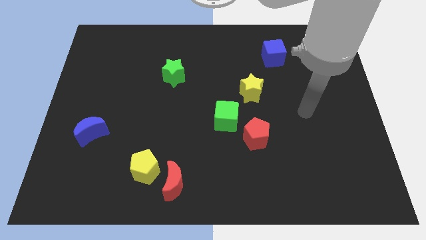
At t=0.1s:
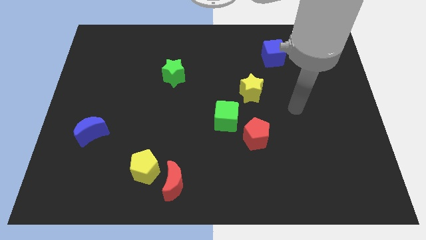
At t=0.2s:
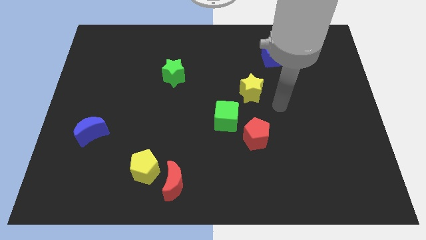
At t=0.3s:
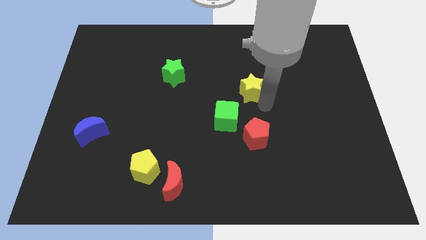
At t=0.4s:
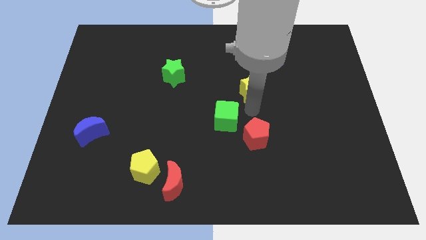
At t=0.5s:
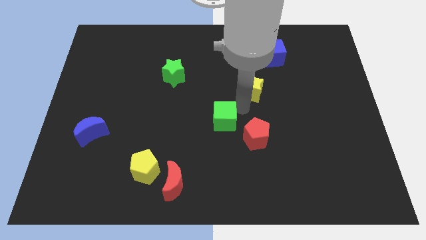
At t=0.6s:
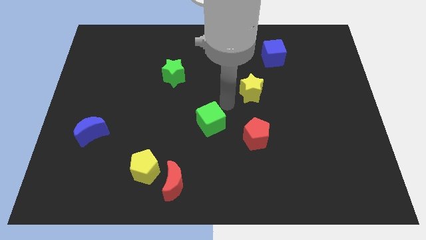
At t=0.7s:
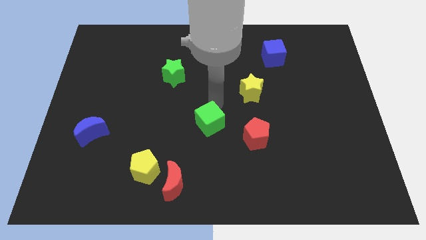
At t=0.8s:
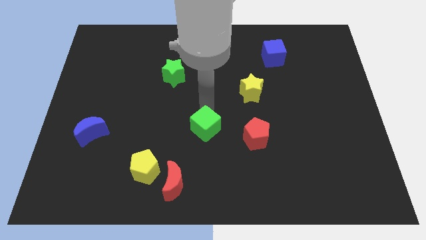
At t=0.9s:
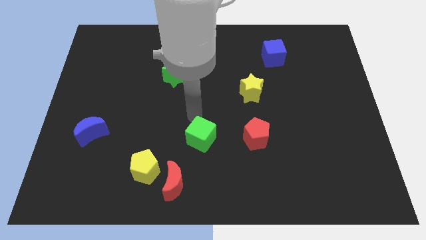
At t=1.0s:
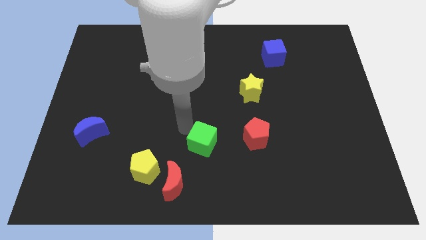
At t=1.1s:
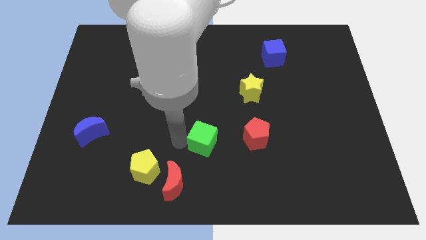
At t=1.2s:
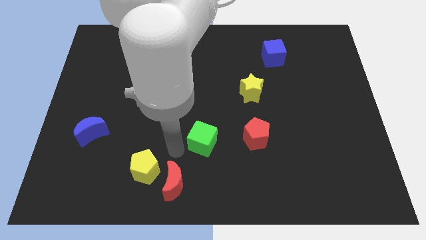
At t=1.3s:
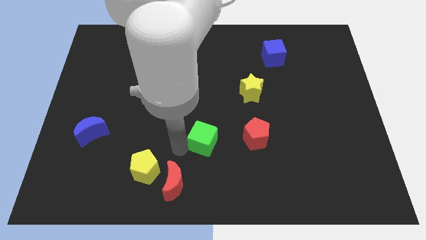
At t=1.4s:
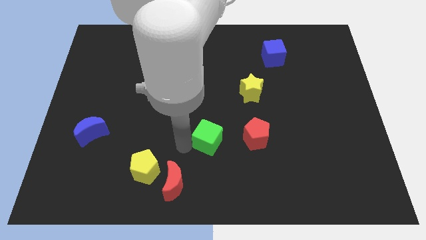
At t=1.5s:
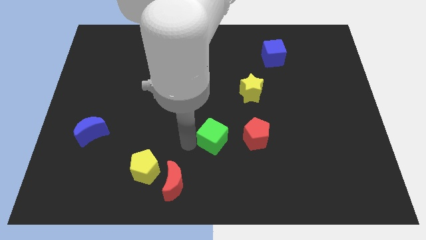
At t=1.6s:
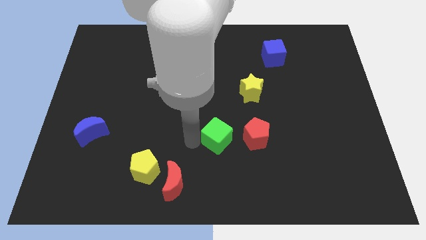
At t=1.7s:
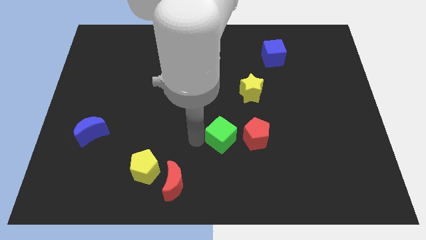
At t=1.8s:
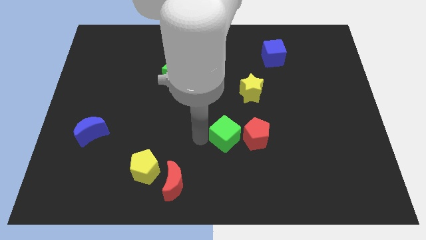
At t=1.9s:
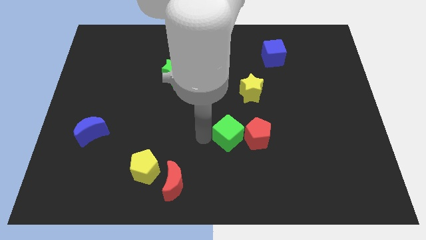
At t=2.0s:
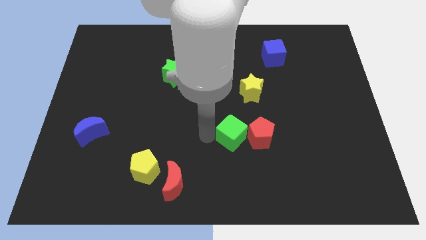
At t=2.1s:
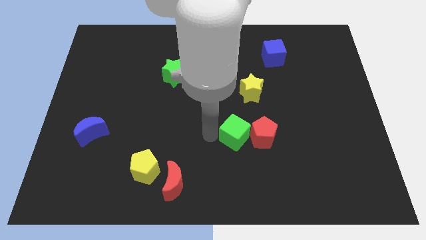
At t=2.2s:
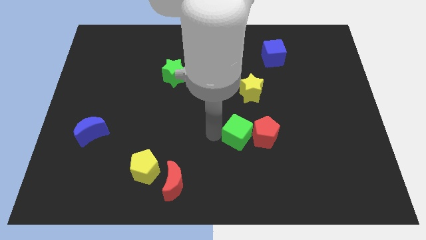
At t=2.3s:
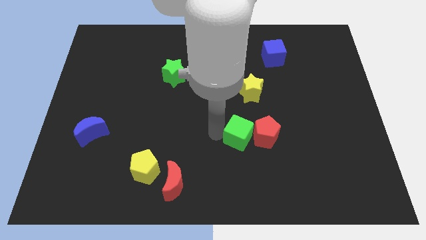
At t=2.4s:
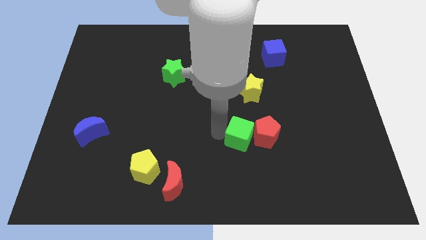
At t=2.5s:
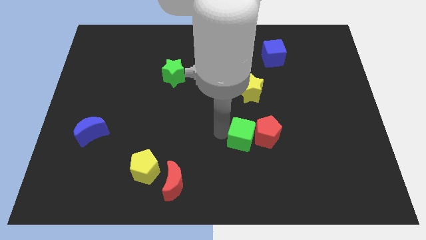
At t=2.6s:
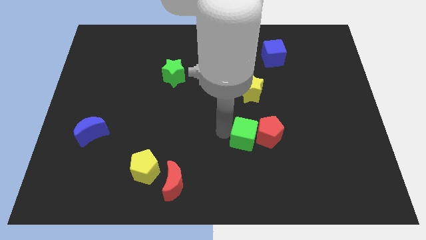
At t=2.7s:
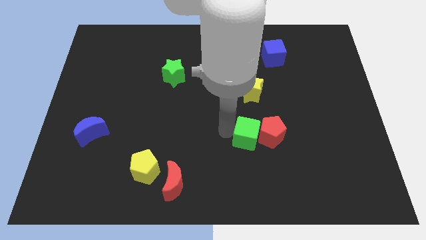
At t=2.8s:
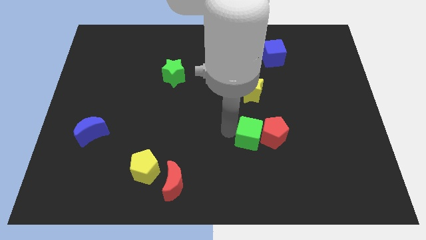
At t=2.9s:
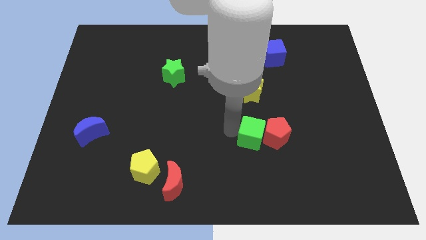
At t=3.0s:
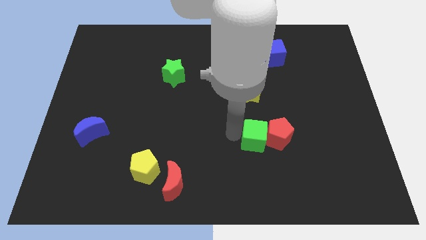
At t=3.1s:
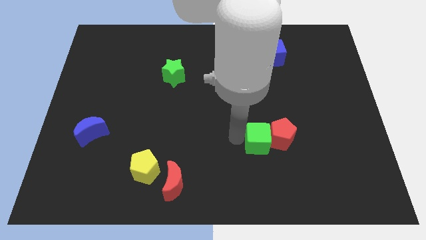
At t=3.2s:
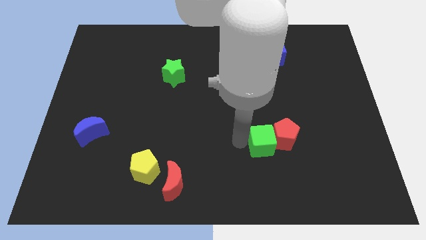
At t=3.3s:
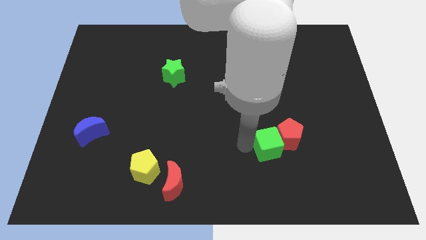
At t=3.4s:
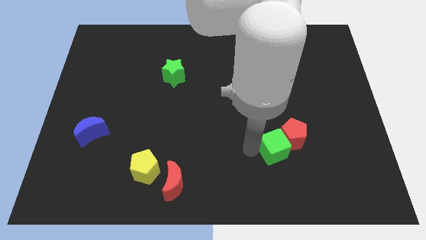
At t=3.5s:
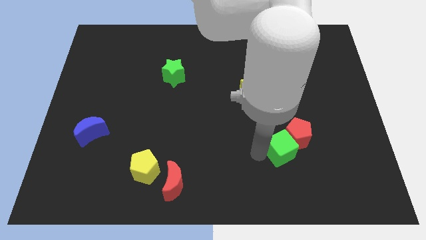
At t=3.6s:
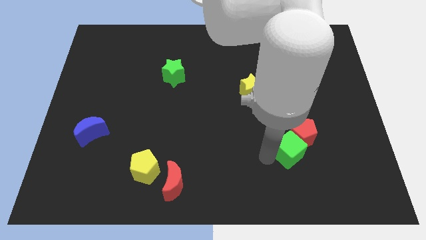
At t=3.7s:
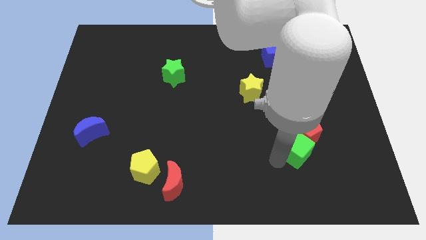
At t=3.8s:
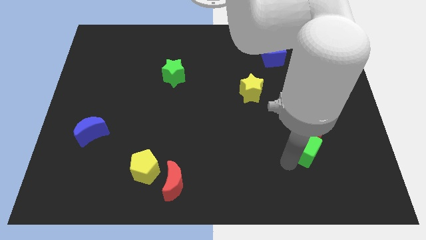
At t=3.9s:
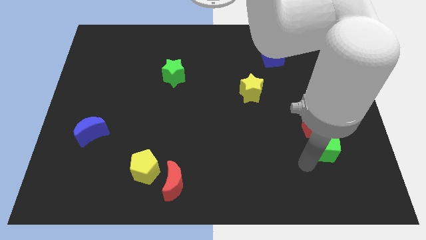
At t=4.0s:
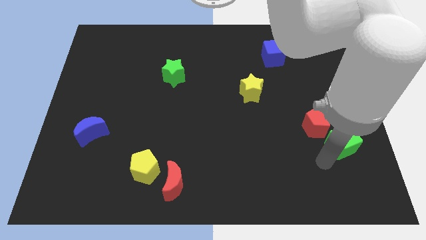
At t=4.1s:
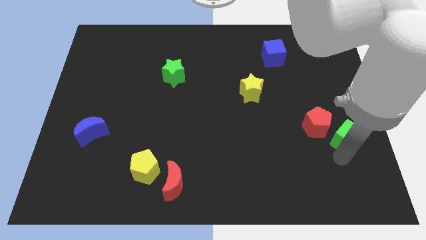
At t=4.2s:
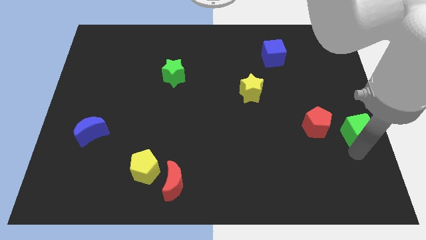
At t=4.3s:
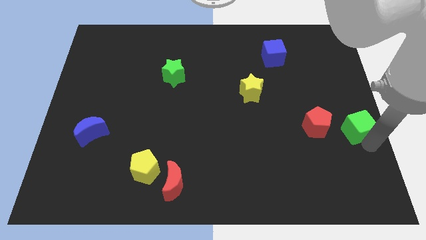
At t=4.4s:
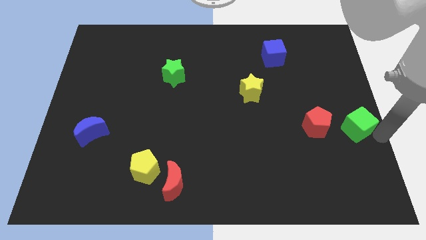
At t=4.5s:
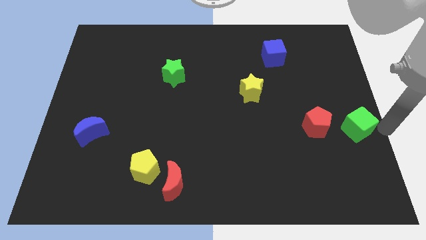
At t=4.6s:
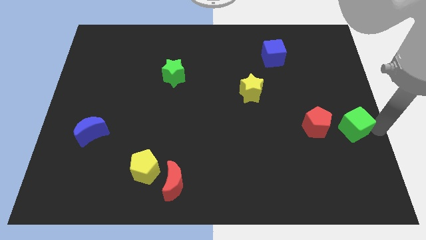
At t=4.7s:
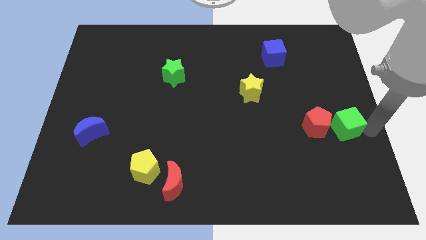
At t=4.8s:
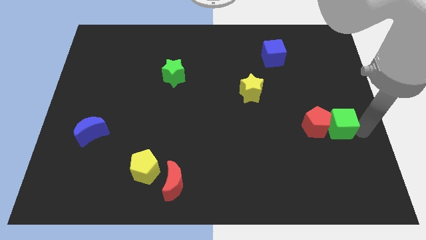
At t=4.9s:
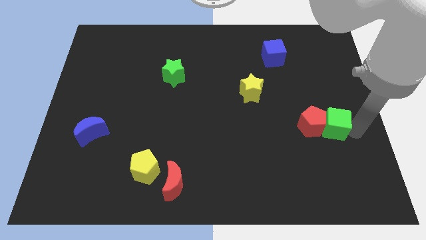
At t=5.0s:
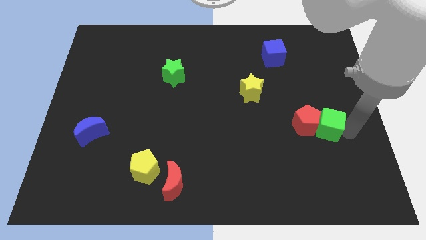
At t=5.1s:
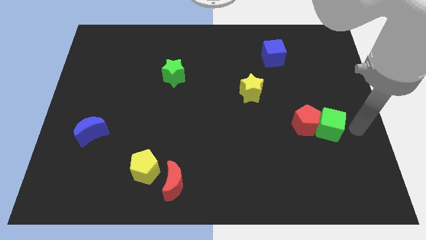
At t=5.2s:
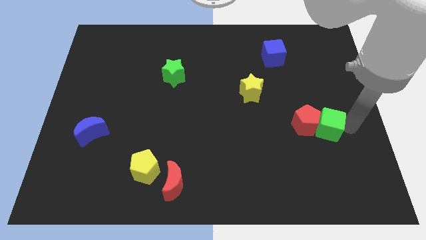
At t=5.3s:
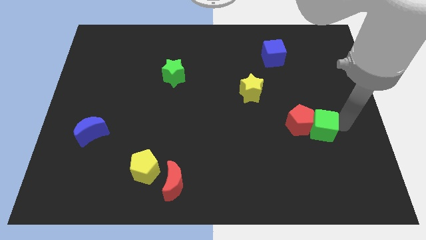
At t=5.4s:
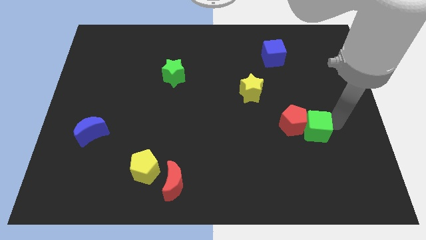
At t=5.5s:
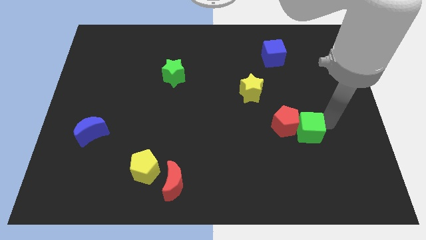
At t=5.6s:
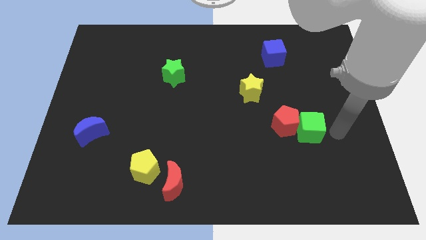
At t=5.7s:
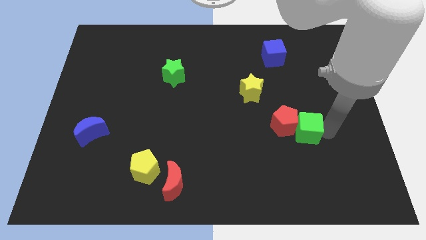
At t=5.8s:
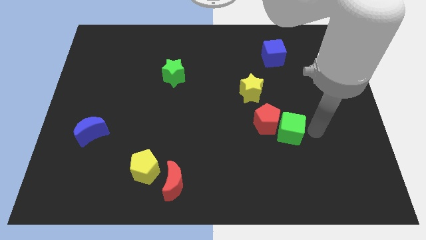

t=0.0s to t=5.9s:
slide the green cube just right of the red pentagon

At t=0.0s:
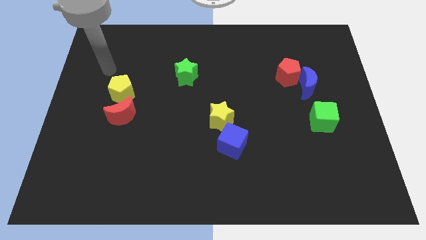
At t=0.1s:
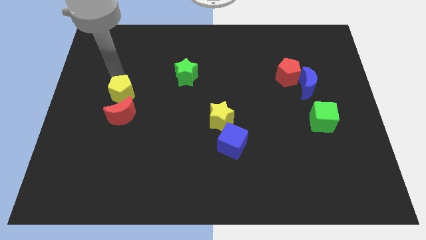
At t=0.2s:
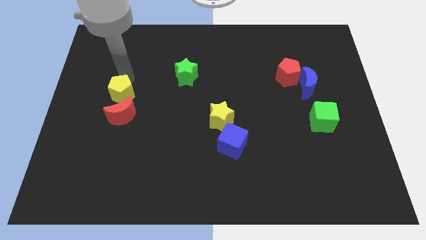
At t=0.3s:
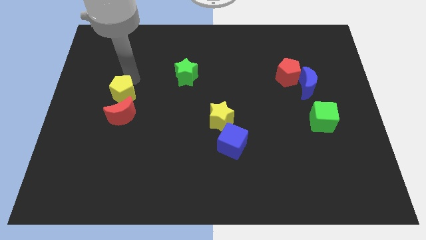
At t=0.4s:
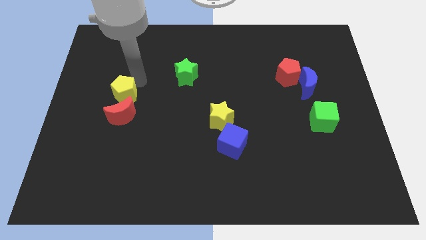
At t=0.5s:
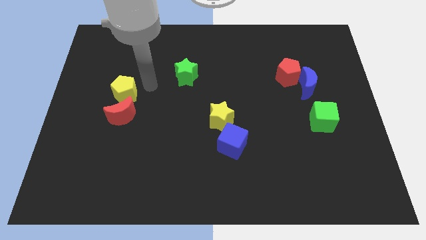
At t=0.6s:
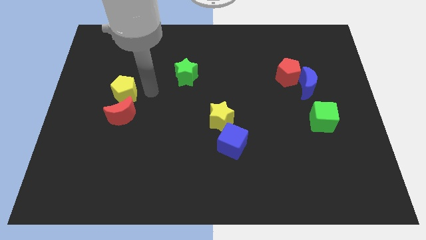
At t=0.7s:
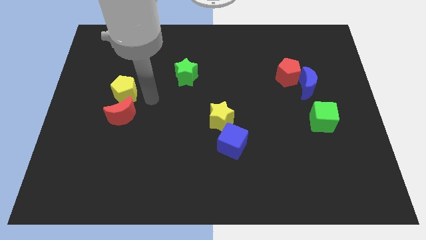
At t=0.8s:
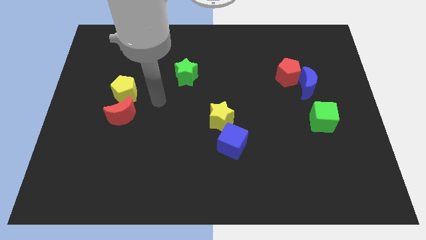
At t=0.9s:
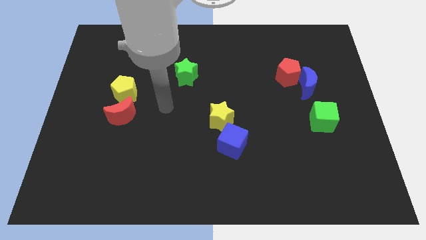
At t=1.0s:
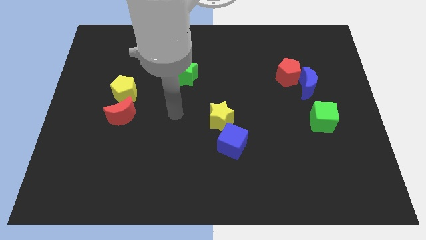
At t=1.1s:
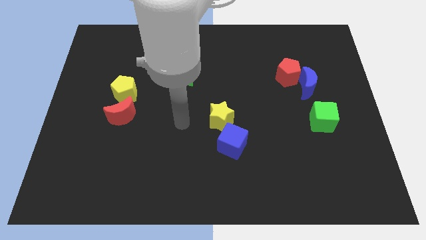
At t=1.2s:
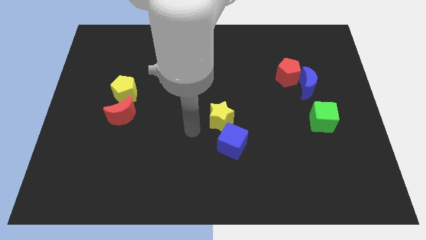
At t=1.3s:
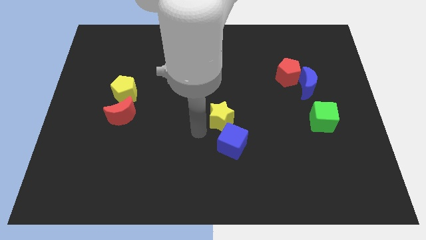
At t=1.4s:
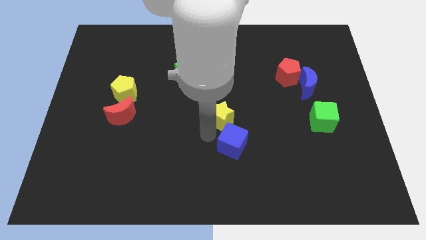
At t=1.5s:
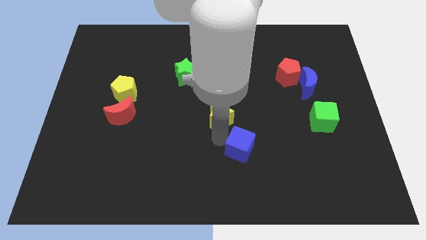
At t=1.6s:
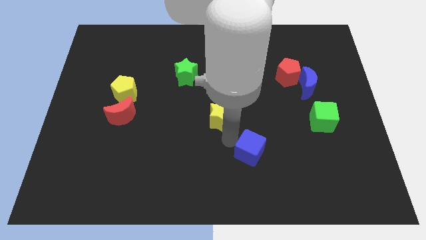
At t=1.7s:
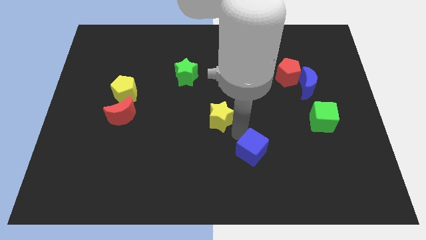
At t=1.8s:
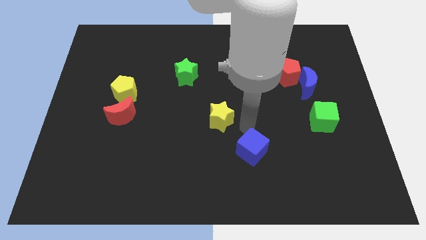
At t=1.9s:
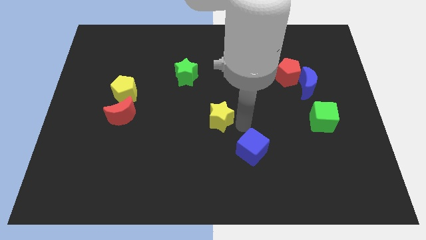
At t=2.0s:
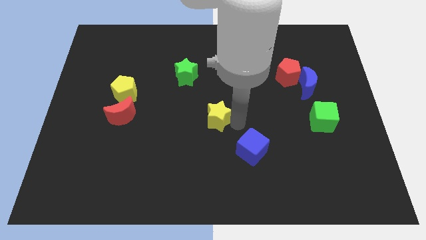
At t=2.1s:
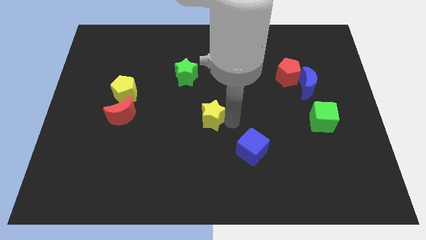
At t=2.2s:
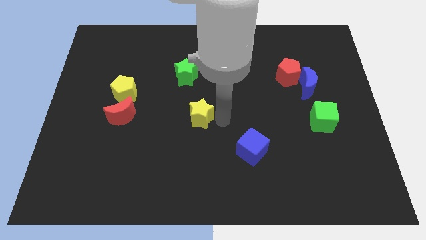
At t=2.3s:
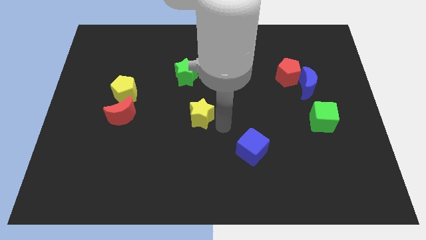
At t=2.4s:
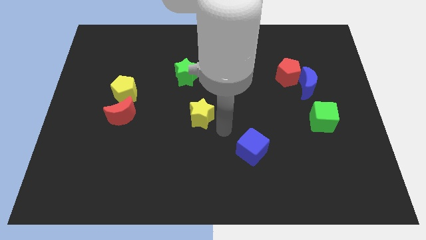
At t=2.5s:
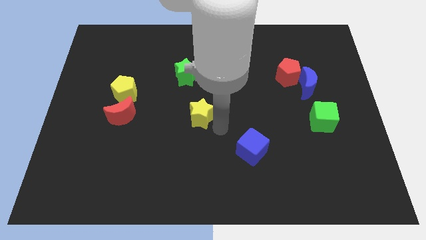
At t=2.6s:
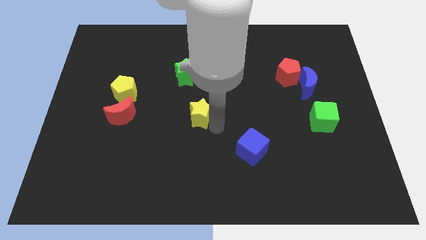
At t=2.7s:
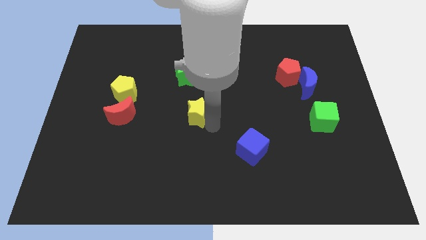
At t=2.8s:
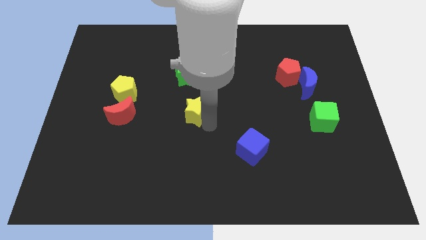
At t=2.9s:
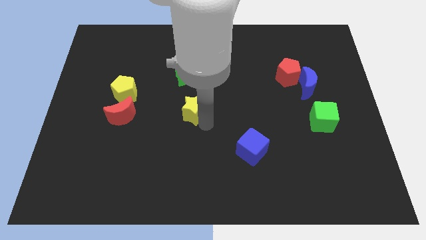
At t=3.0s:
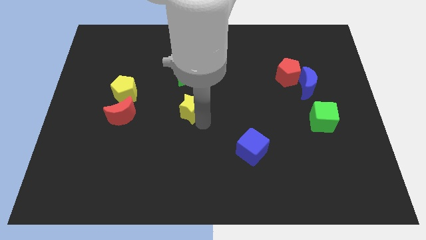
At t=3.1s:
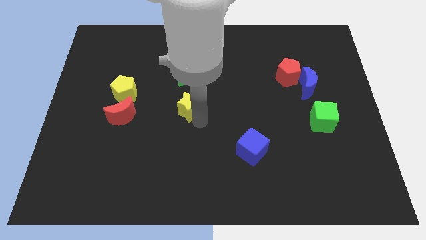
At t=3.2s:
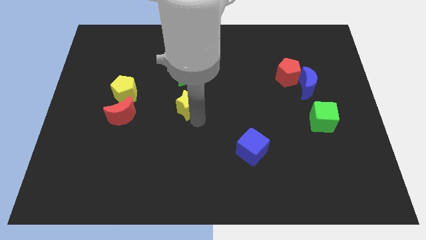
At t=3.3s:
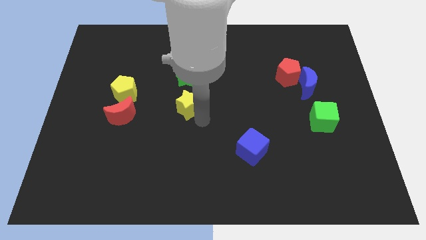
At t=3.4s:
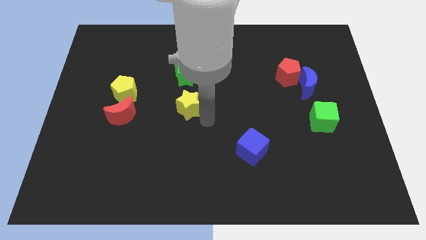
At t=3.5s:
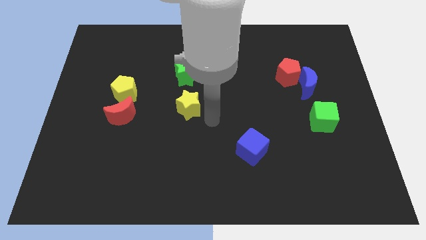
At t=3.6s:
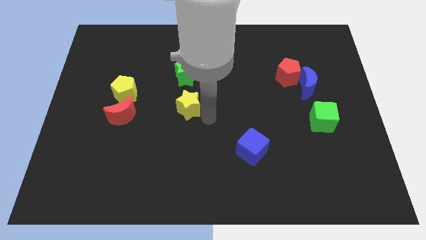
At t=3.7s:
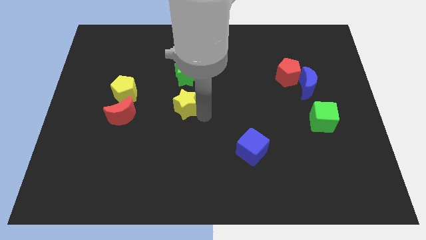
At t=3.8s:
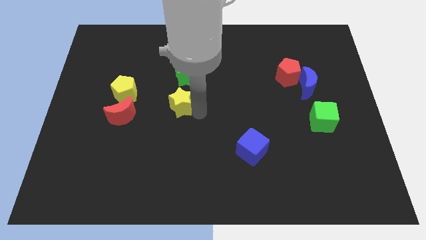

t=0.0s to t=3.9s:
push the yellow star to the right side of the yellow pentagon
